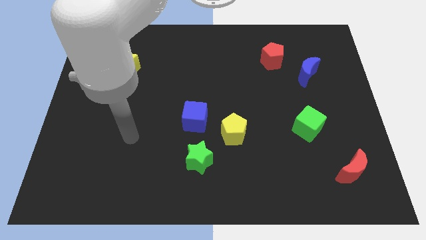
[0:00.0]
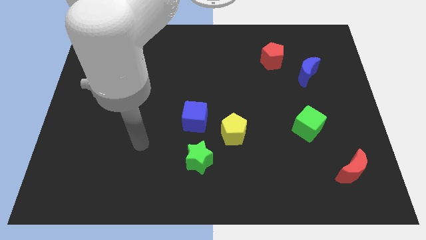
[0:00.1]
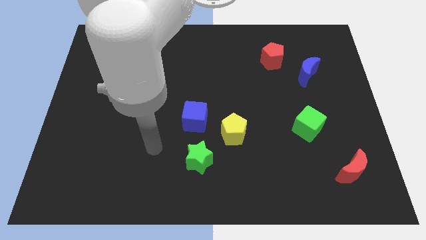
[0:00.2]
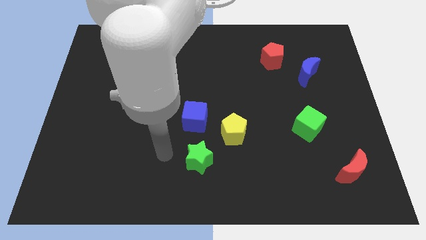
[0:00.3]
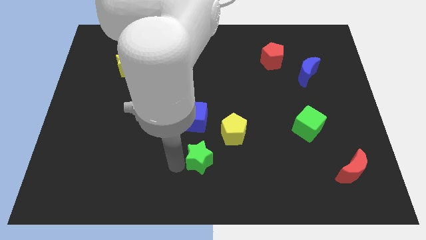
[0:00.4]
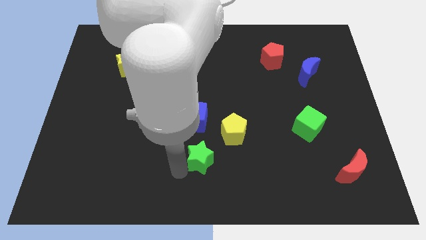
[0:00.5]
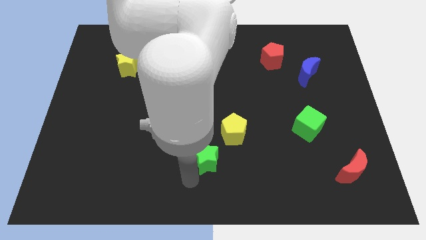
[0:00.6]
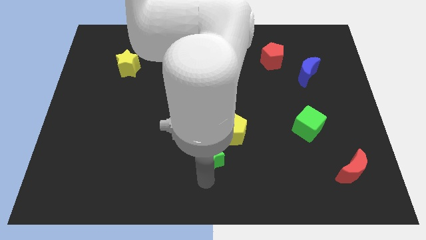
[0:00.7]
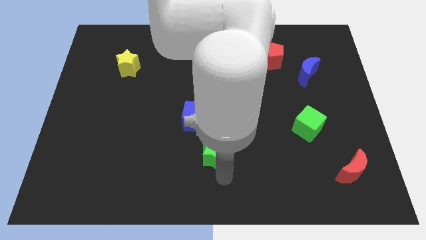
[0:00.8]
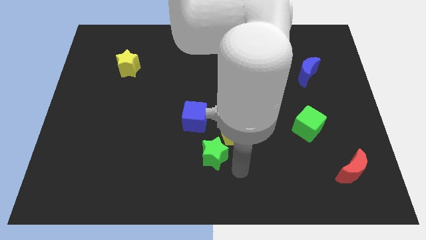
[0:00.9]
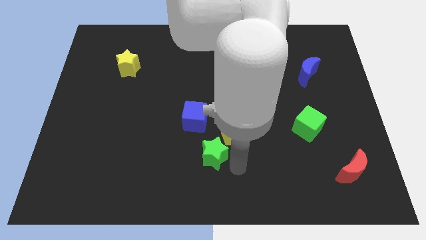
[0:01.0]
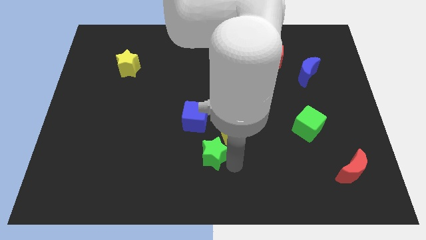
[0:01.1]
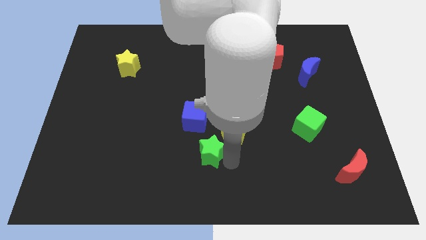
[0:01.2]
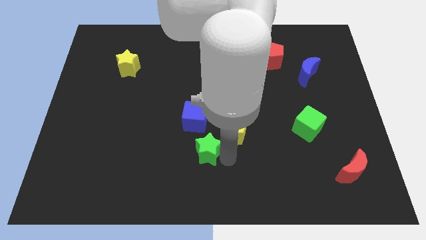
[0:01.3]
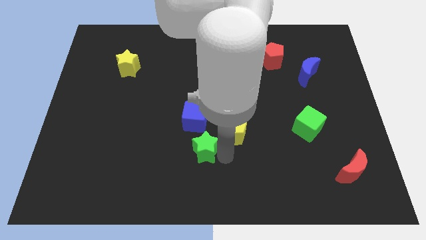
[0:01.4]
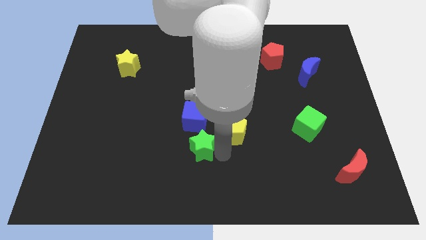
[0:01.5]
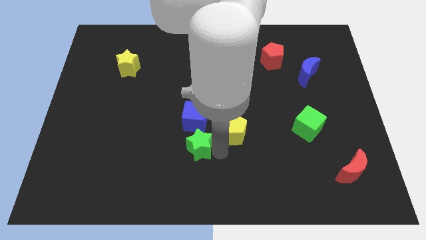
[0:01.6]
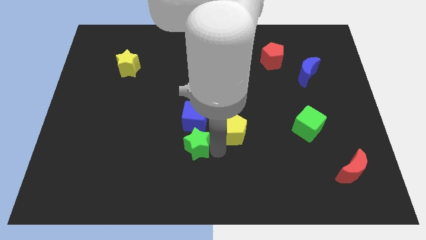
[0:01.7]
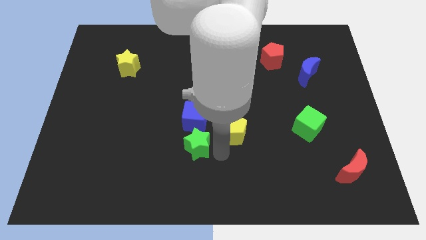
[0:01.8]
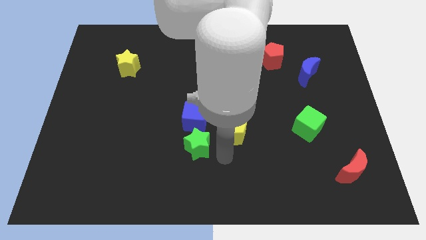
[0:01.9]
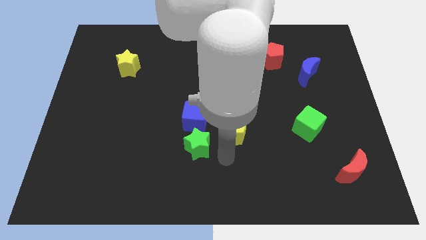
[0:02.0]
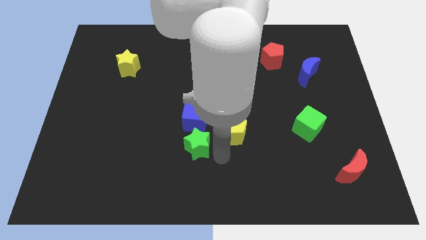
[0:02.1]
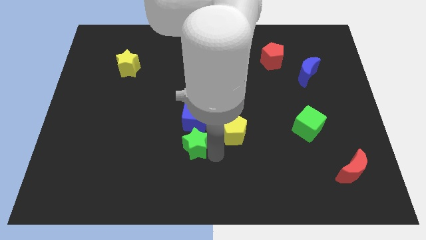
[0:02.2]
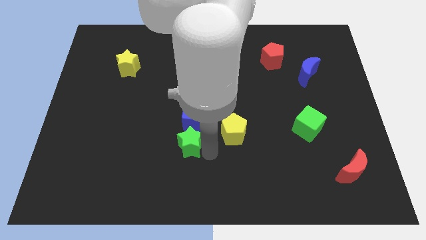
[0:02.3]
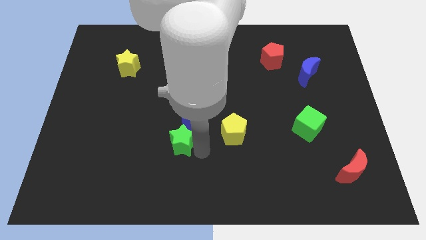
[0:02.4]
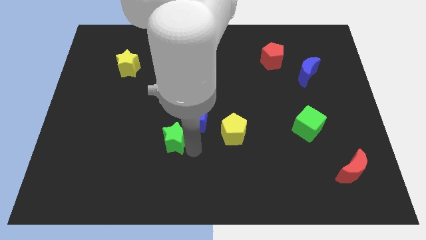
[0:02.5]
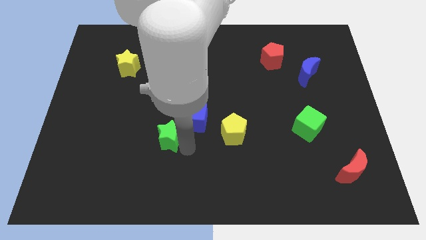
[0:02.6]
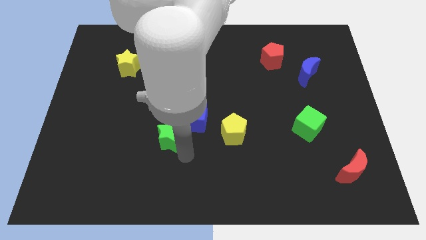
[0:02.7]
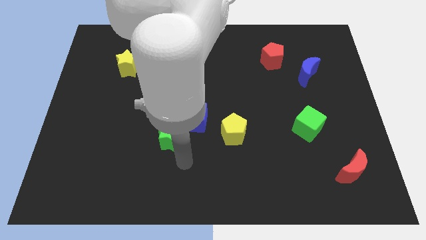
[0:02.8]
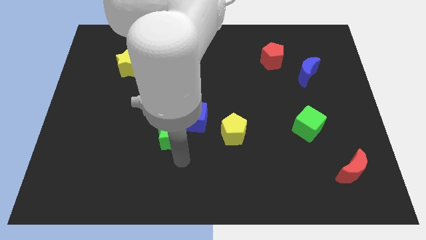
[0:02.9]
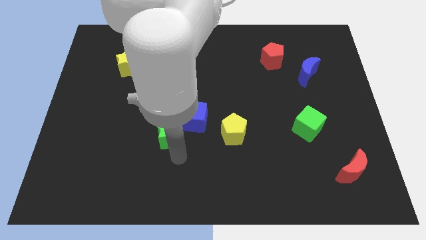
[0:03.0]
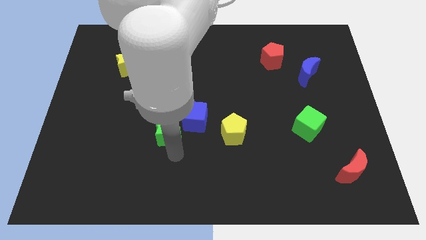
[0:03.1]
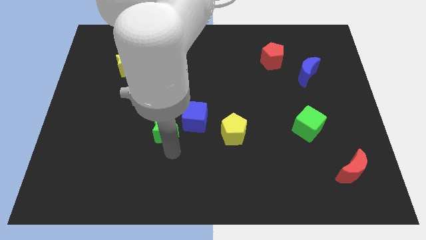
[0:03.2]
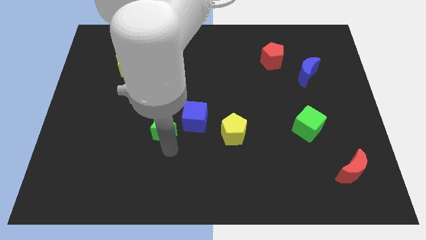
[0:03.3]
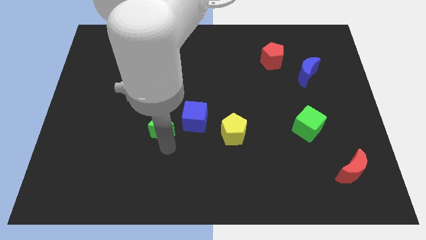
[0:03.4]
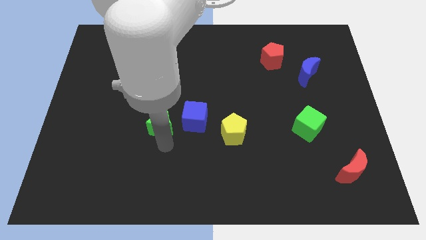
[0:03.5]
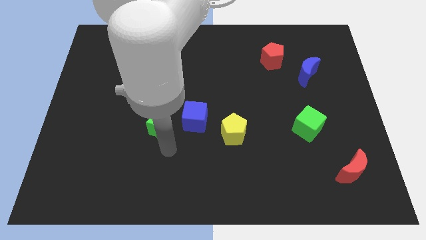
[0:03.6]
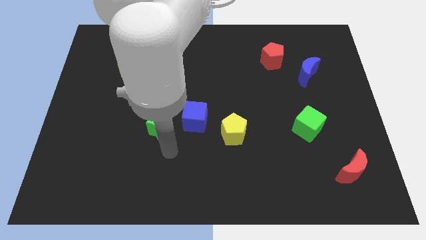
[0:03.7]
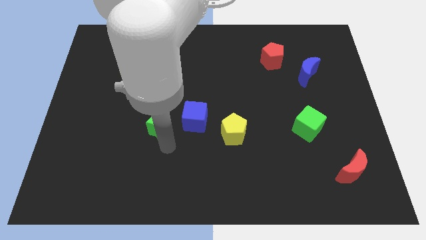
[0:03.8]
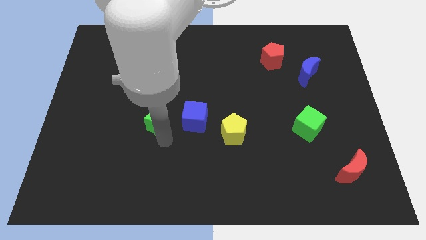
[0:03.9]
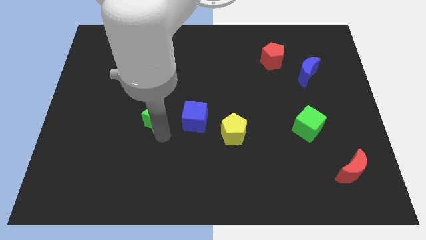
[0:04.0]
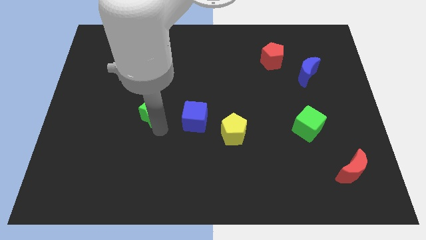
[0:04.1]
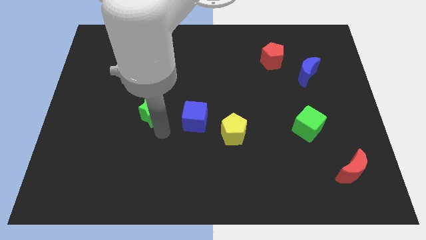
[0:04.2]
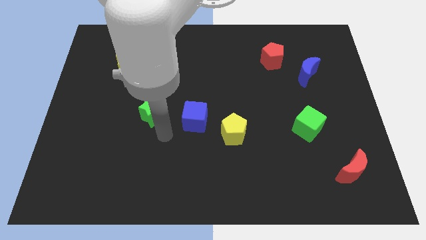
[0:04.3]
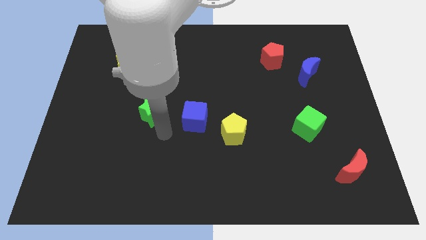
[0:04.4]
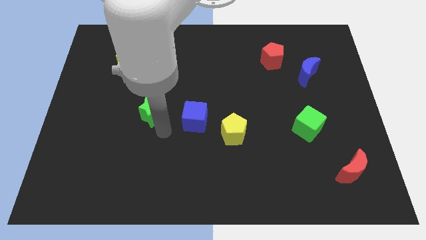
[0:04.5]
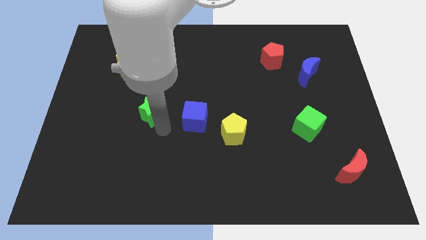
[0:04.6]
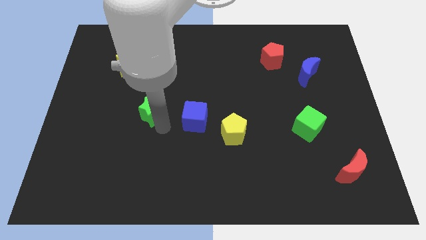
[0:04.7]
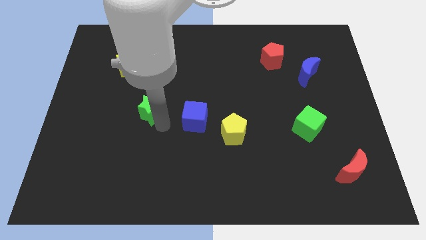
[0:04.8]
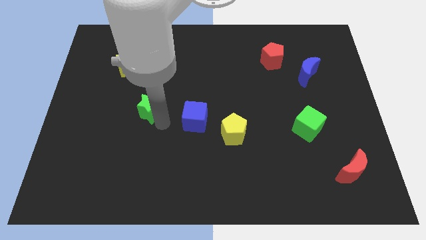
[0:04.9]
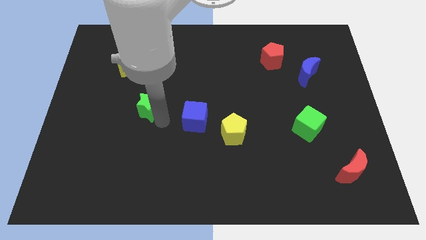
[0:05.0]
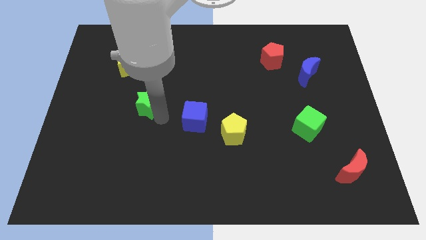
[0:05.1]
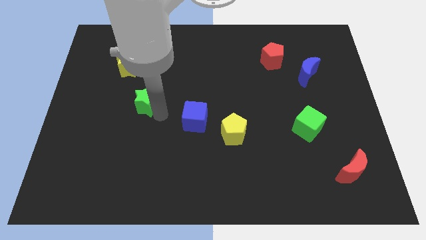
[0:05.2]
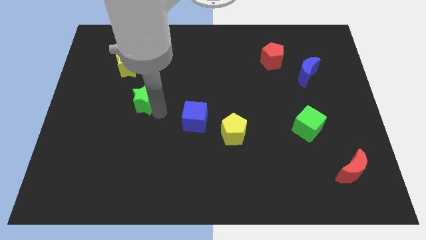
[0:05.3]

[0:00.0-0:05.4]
push the green star diagonally upwards and left

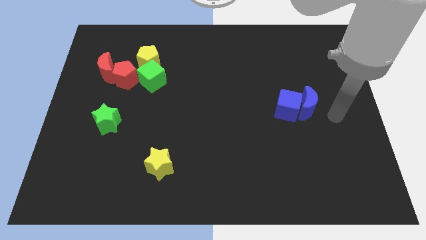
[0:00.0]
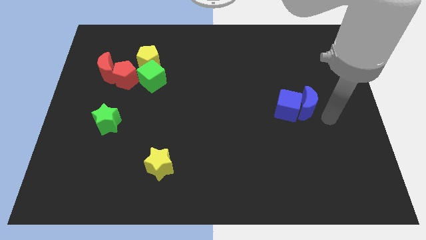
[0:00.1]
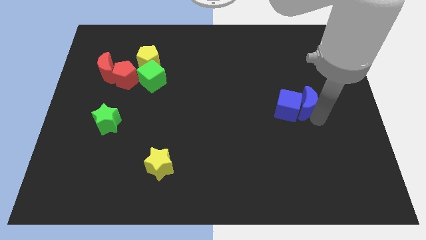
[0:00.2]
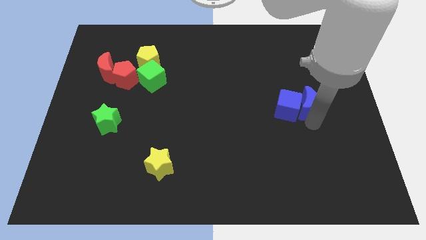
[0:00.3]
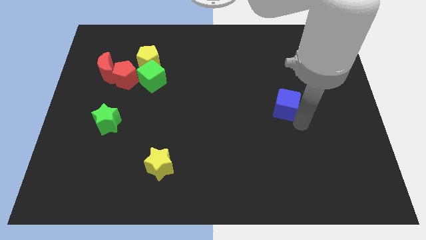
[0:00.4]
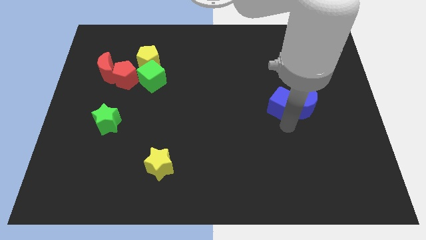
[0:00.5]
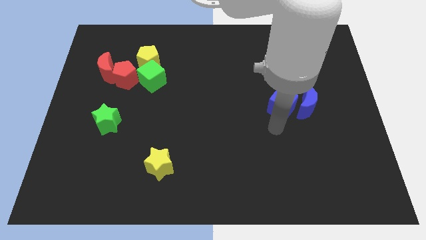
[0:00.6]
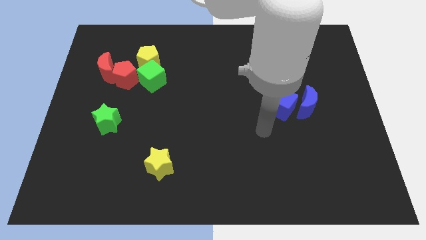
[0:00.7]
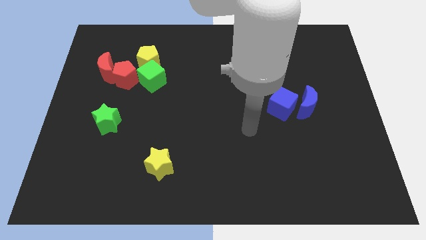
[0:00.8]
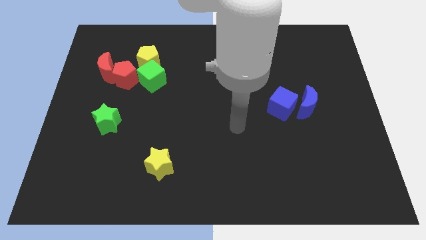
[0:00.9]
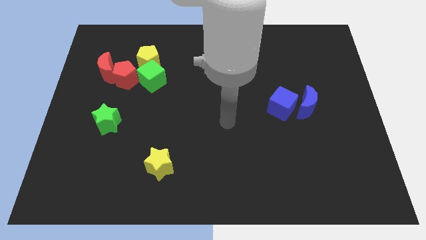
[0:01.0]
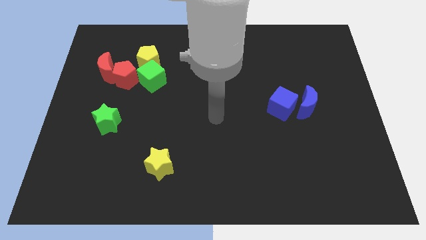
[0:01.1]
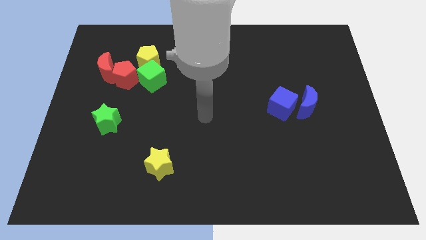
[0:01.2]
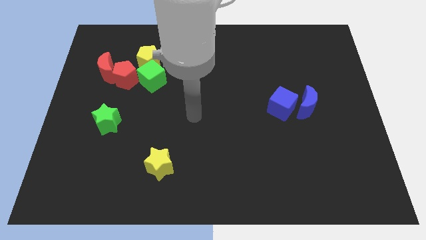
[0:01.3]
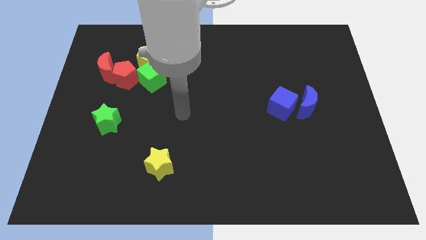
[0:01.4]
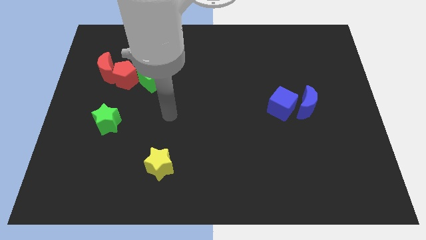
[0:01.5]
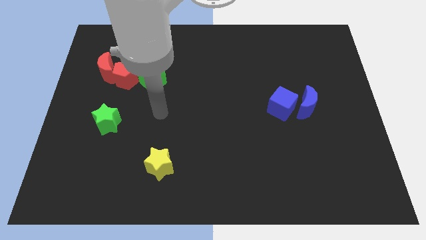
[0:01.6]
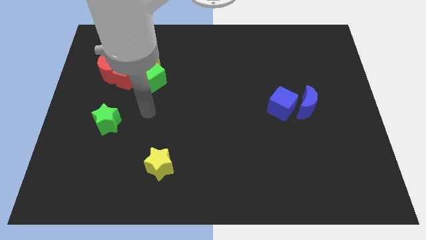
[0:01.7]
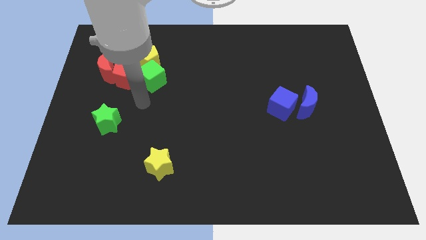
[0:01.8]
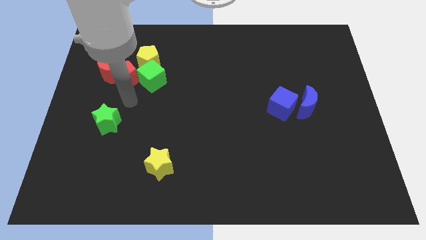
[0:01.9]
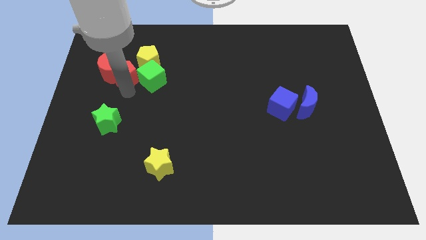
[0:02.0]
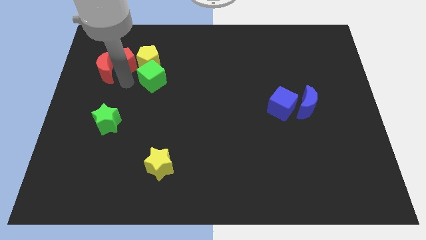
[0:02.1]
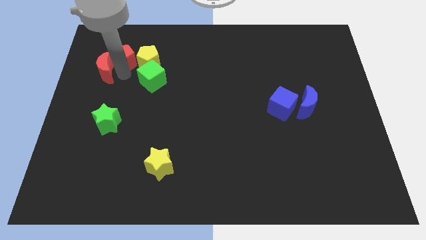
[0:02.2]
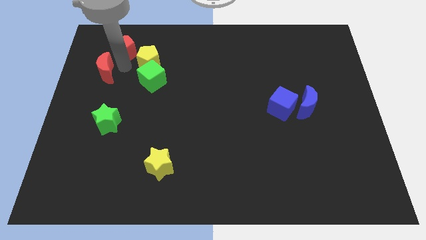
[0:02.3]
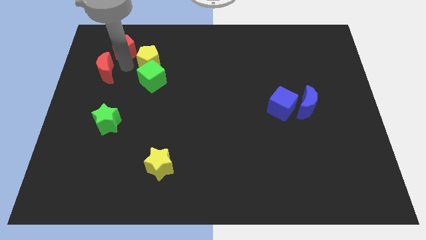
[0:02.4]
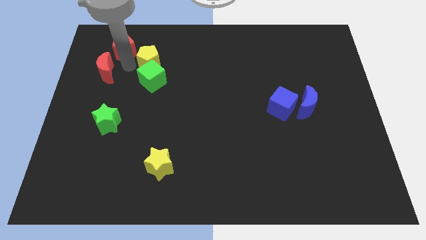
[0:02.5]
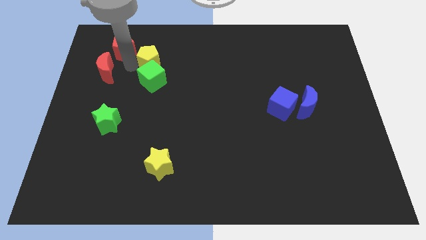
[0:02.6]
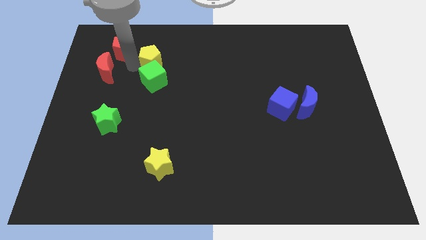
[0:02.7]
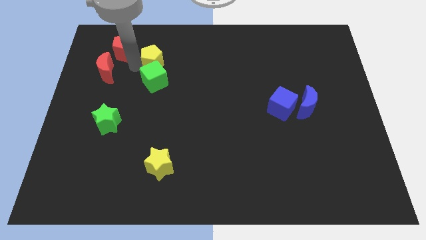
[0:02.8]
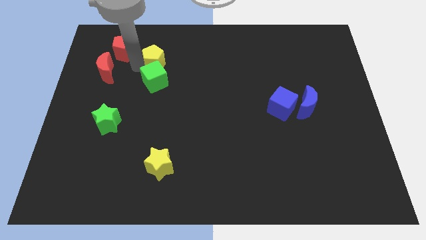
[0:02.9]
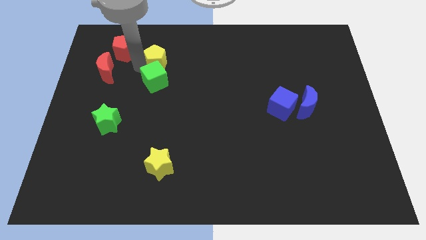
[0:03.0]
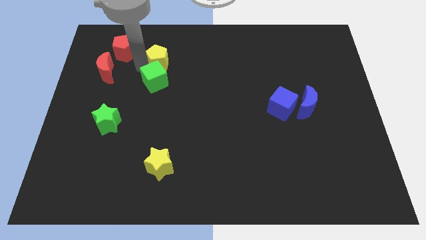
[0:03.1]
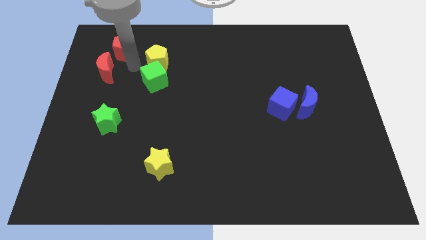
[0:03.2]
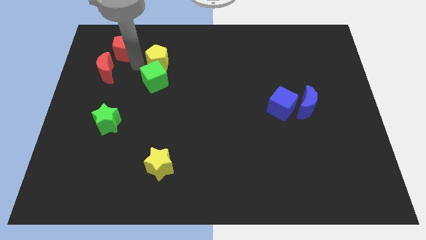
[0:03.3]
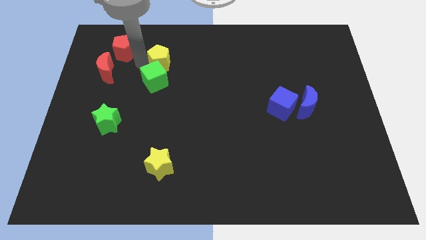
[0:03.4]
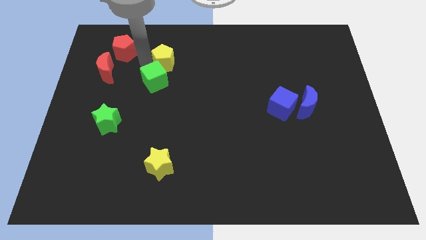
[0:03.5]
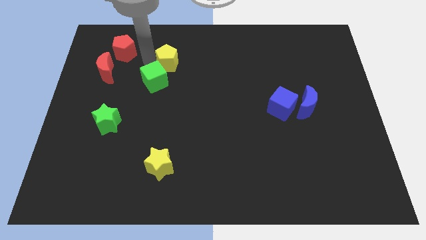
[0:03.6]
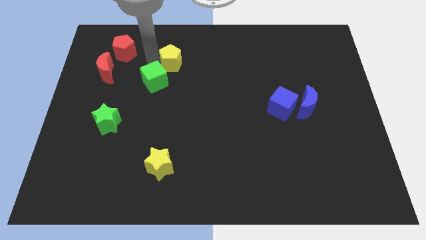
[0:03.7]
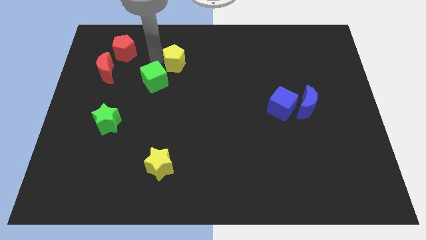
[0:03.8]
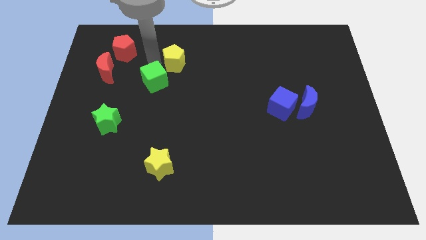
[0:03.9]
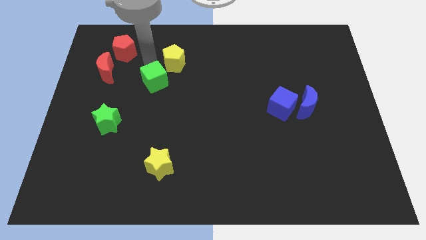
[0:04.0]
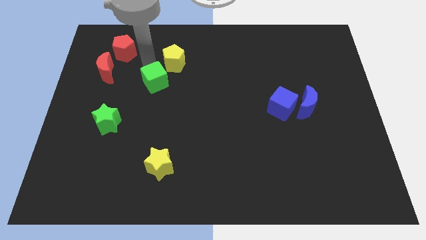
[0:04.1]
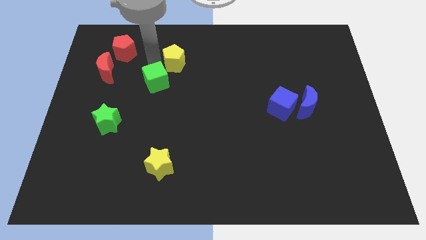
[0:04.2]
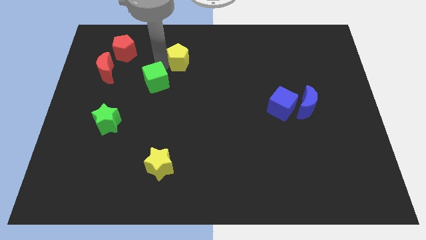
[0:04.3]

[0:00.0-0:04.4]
push the yellow pentagon right a little
